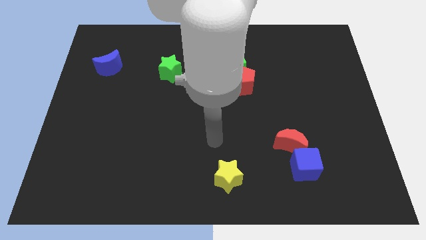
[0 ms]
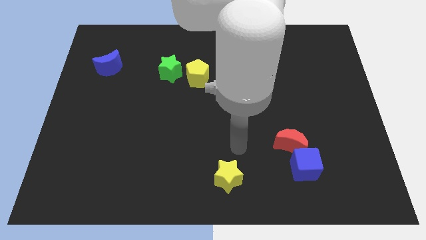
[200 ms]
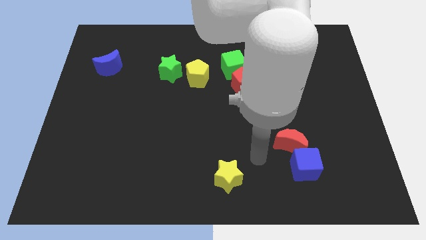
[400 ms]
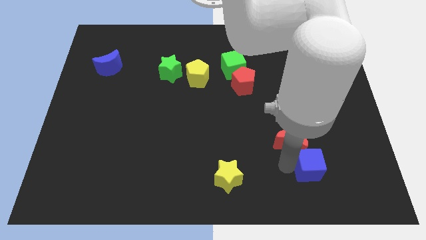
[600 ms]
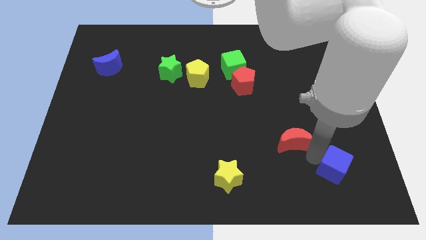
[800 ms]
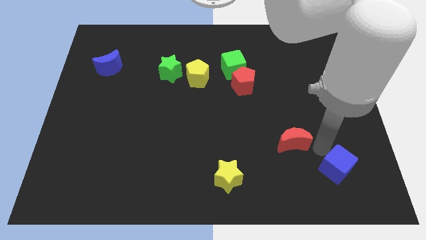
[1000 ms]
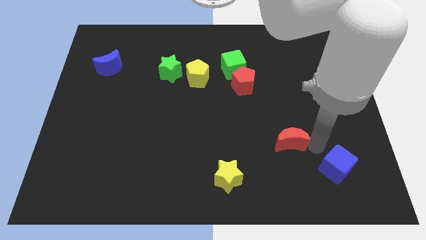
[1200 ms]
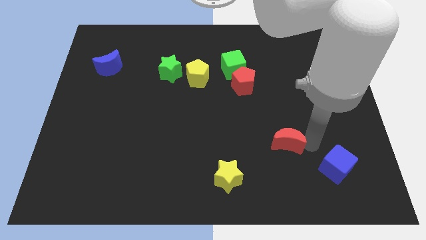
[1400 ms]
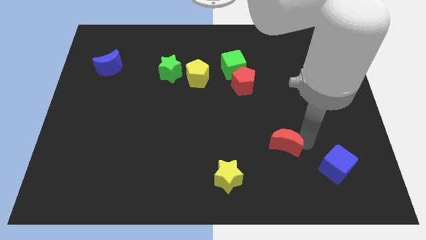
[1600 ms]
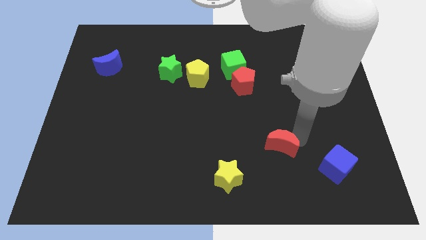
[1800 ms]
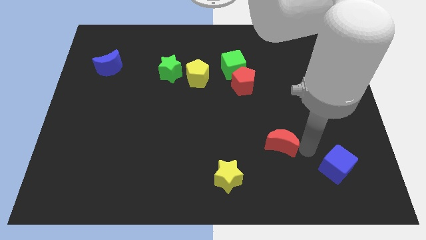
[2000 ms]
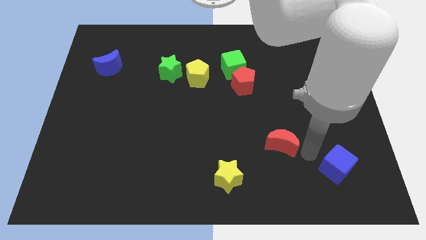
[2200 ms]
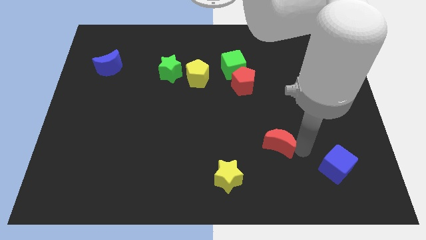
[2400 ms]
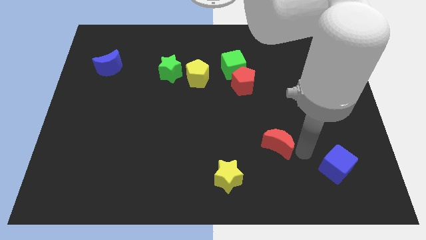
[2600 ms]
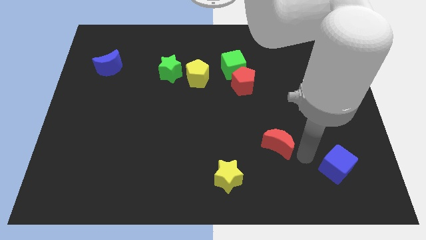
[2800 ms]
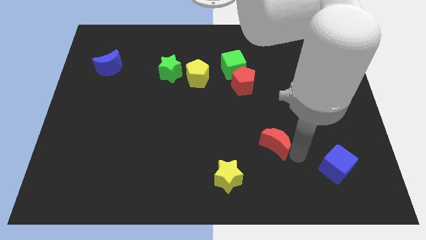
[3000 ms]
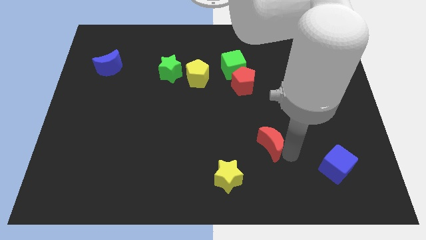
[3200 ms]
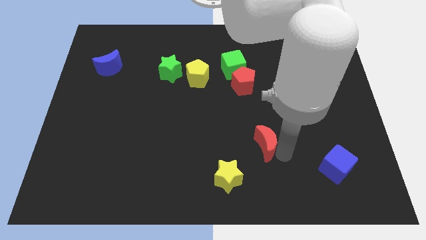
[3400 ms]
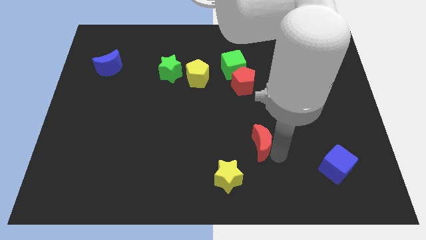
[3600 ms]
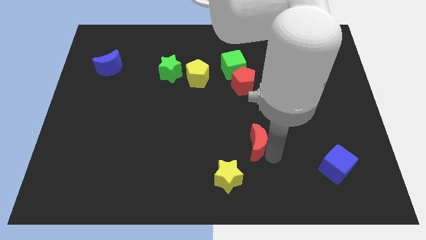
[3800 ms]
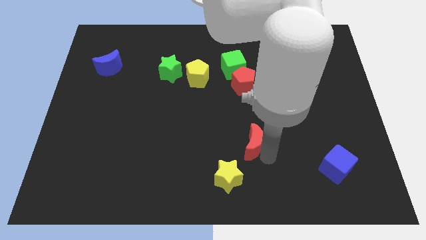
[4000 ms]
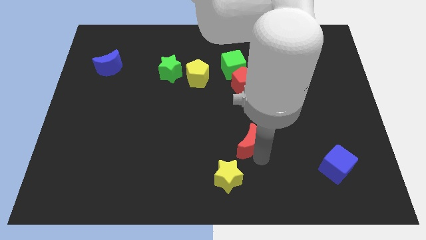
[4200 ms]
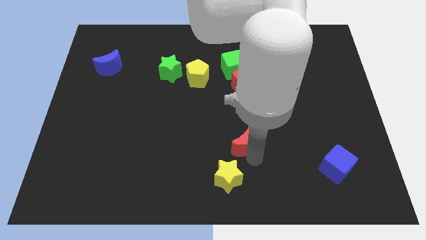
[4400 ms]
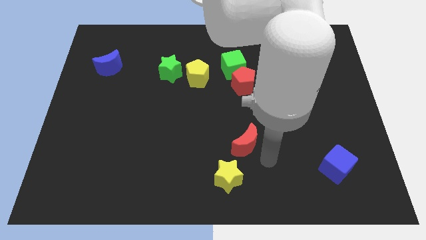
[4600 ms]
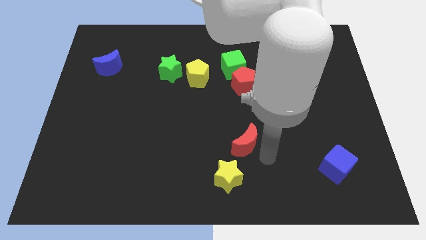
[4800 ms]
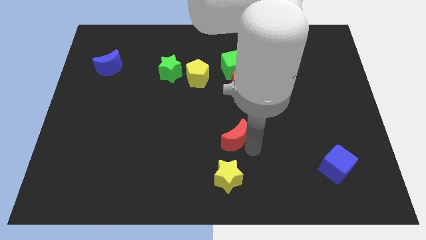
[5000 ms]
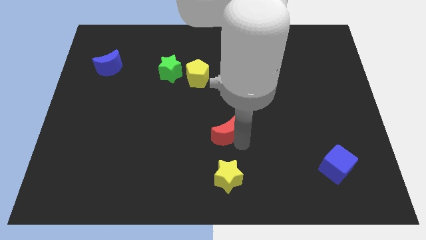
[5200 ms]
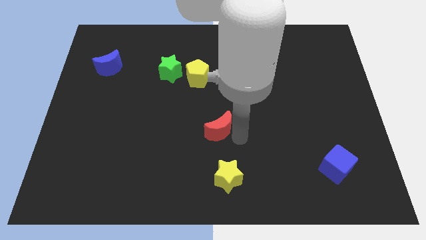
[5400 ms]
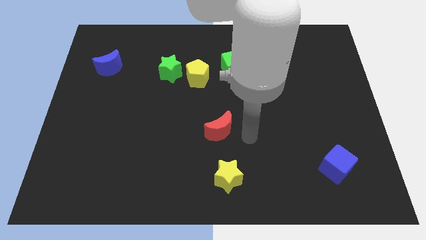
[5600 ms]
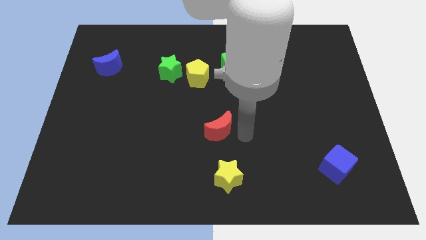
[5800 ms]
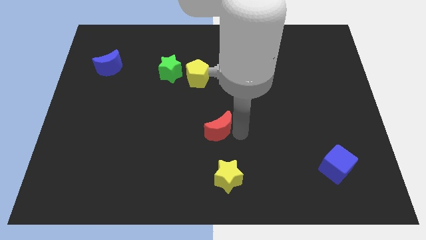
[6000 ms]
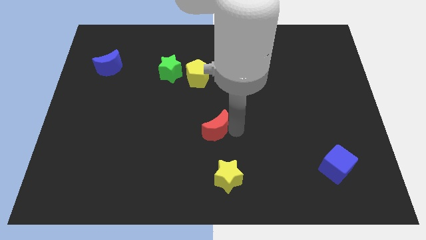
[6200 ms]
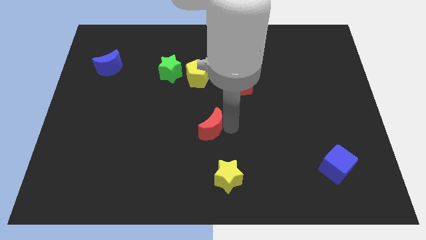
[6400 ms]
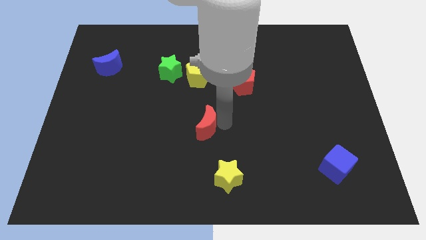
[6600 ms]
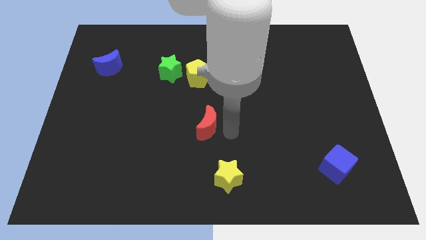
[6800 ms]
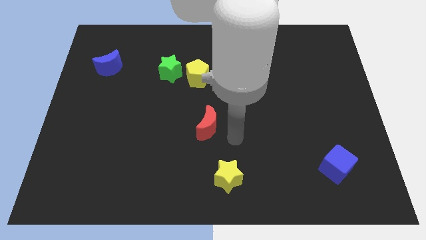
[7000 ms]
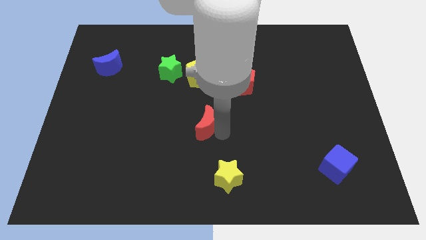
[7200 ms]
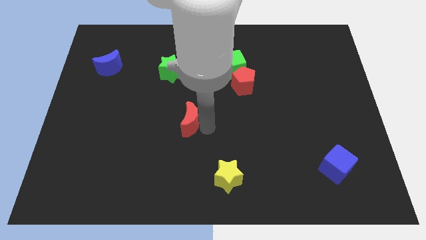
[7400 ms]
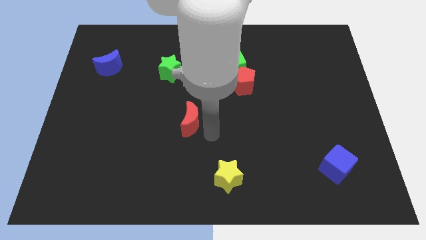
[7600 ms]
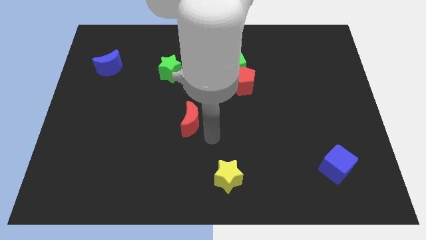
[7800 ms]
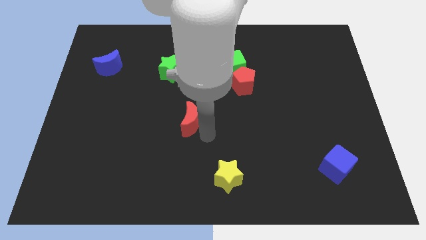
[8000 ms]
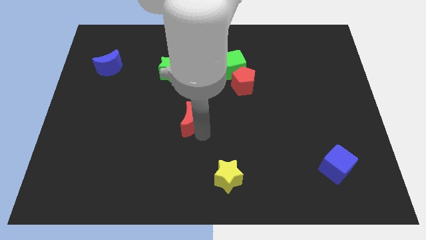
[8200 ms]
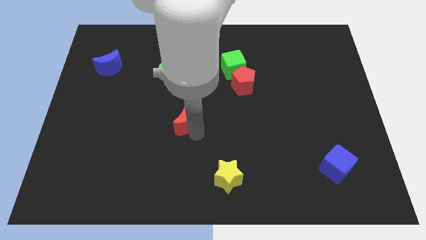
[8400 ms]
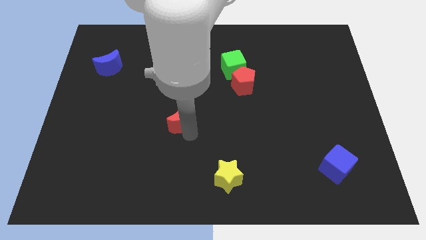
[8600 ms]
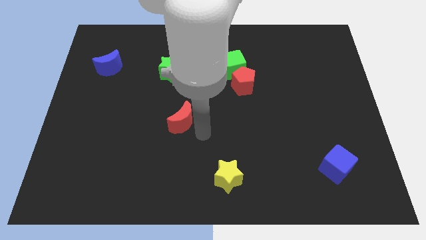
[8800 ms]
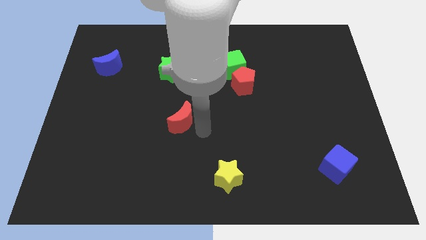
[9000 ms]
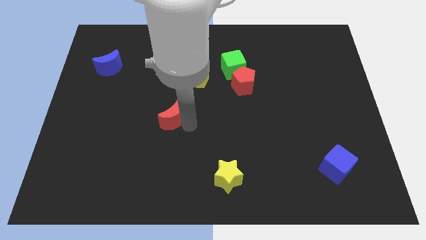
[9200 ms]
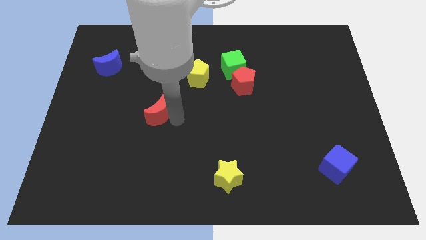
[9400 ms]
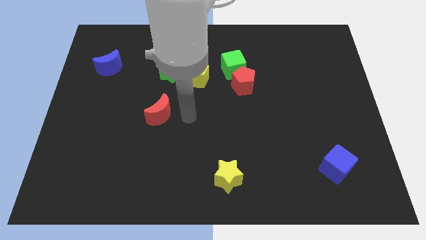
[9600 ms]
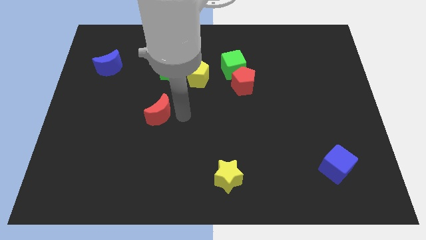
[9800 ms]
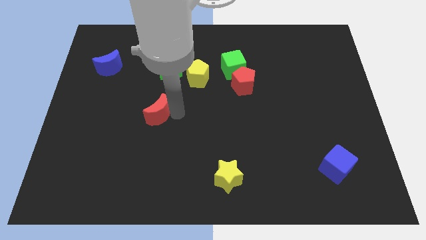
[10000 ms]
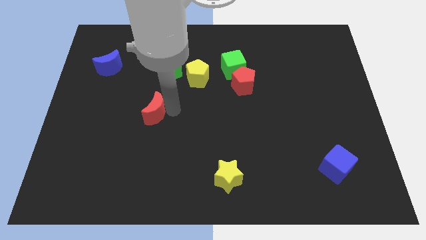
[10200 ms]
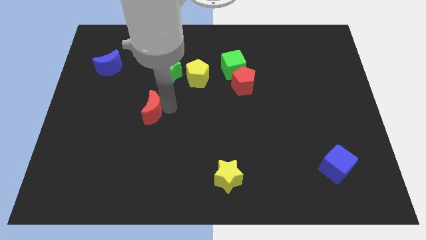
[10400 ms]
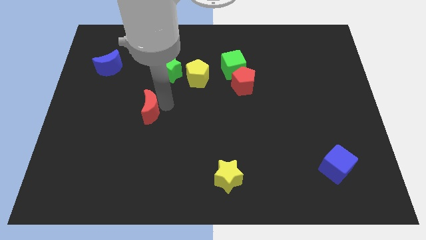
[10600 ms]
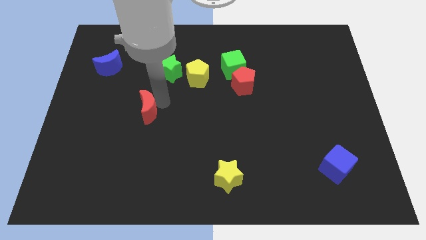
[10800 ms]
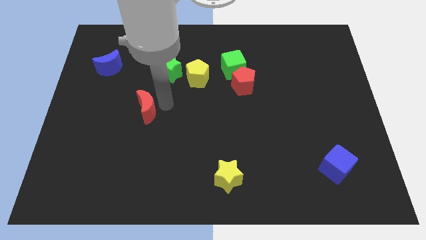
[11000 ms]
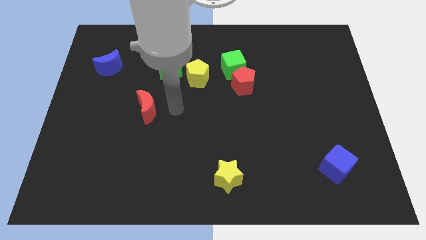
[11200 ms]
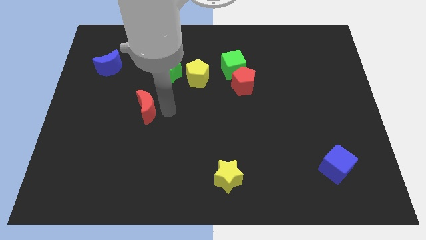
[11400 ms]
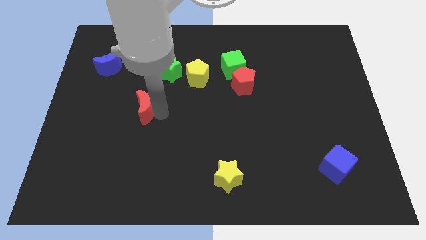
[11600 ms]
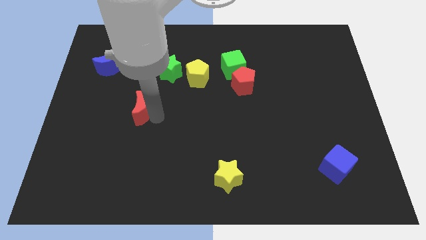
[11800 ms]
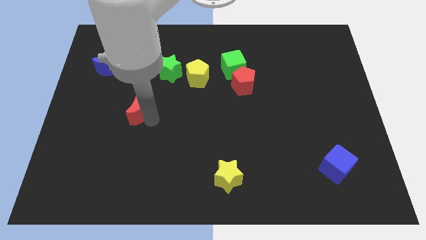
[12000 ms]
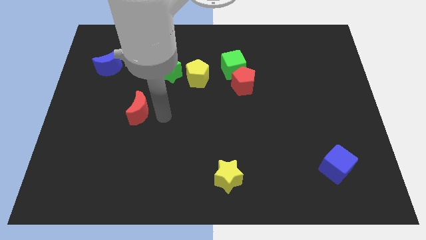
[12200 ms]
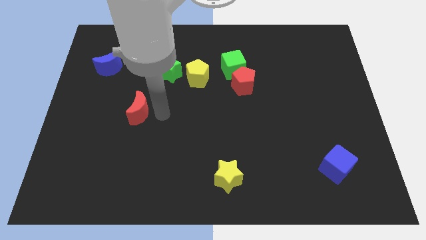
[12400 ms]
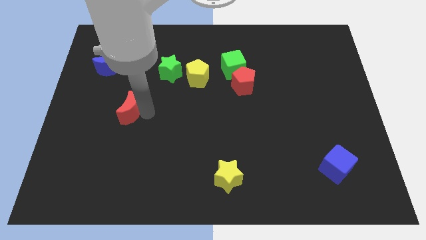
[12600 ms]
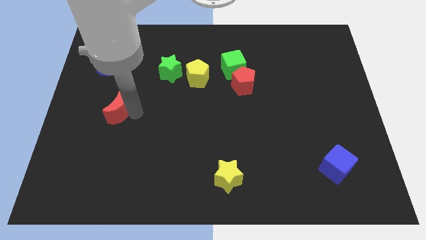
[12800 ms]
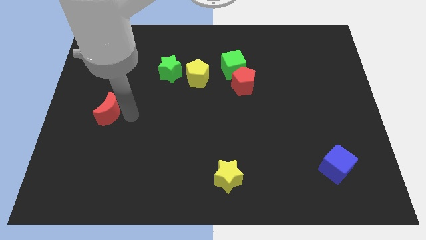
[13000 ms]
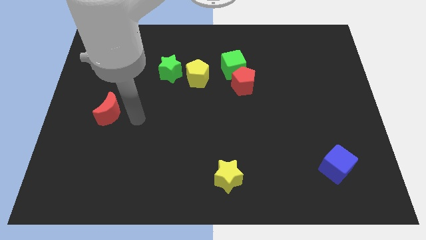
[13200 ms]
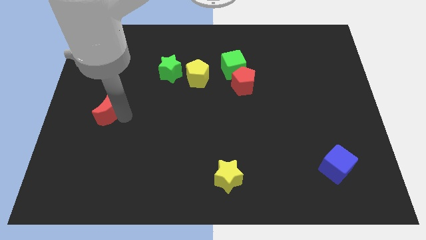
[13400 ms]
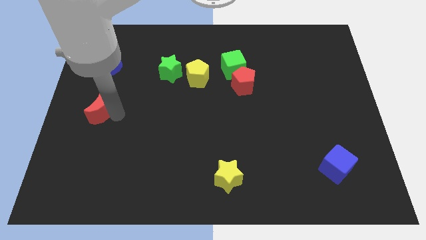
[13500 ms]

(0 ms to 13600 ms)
put the red moon to the center left

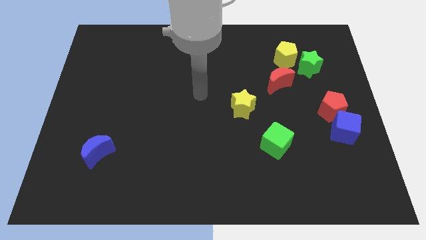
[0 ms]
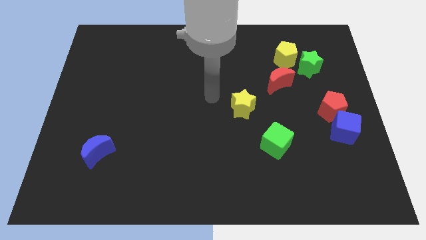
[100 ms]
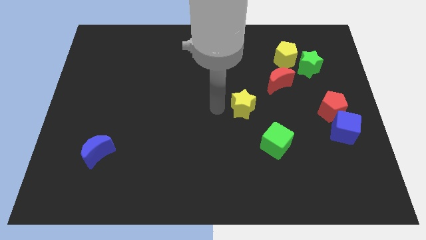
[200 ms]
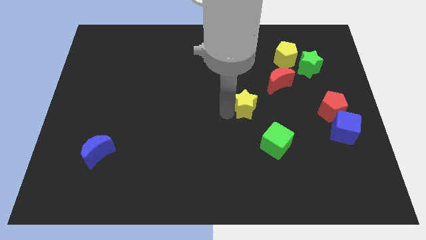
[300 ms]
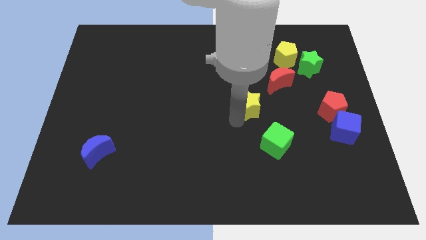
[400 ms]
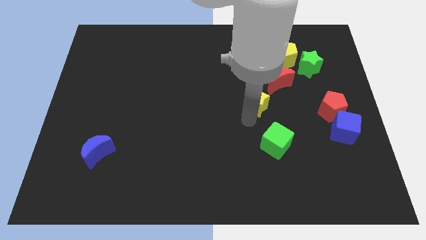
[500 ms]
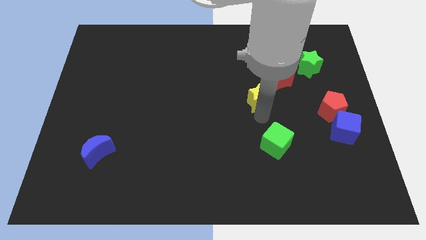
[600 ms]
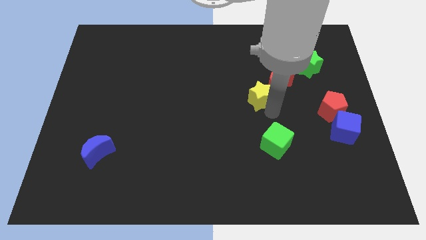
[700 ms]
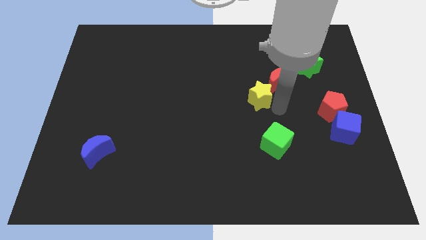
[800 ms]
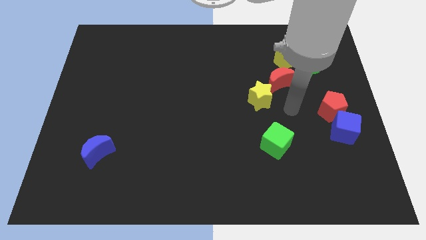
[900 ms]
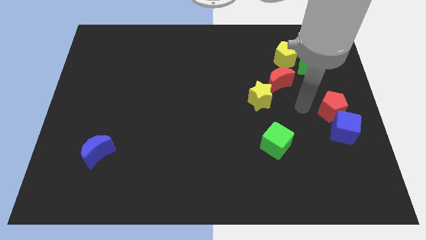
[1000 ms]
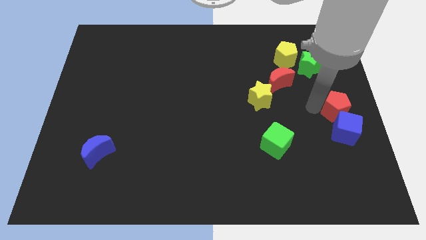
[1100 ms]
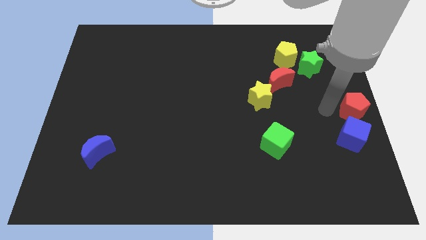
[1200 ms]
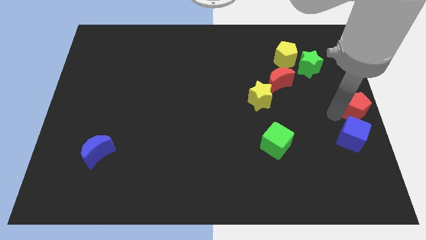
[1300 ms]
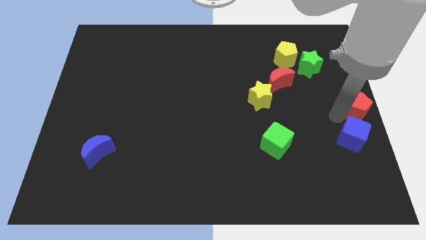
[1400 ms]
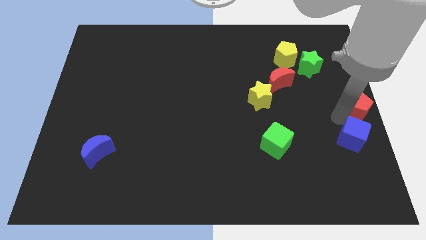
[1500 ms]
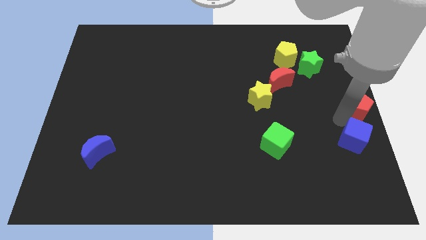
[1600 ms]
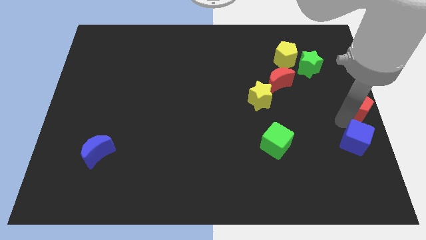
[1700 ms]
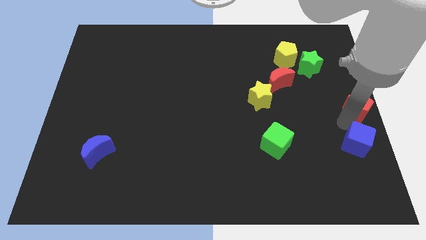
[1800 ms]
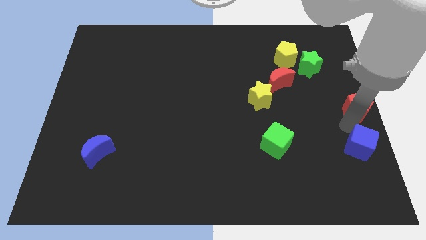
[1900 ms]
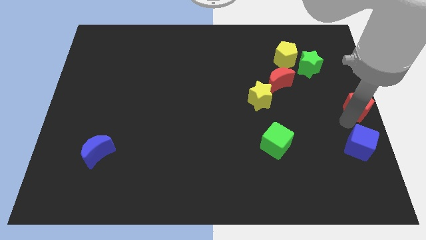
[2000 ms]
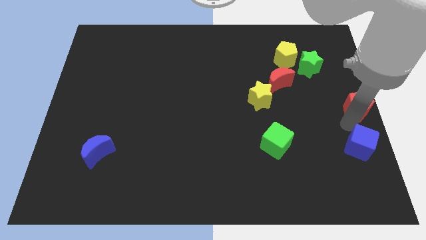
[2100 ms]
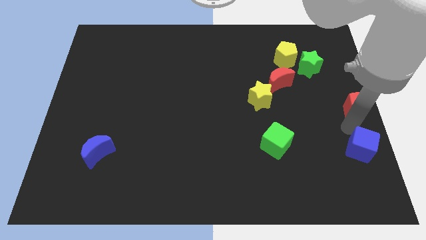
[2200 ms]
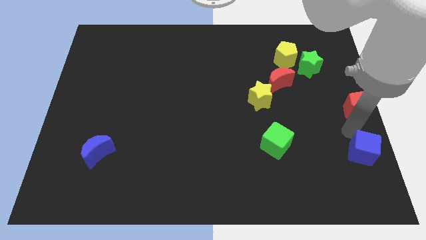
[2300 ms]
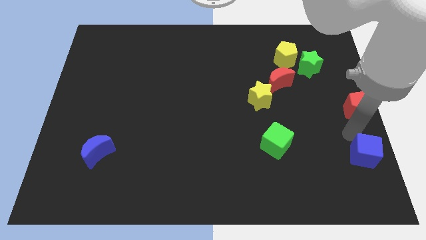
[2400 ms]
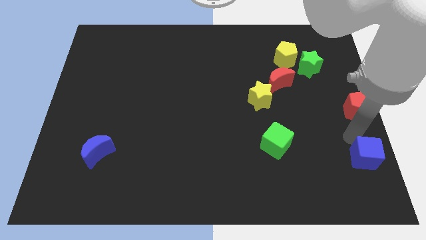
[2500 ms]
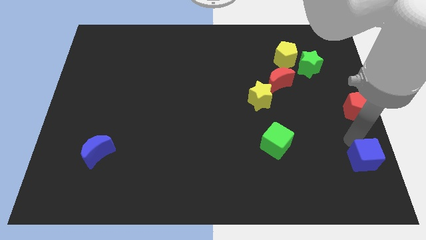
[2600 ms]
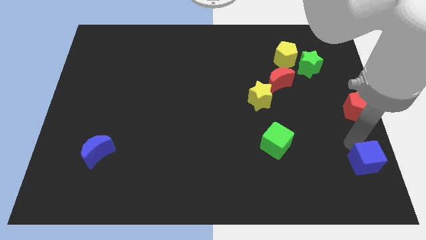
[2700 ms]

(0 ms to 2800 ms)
slide the blue cube to the bottom right corner
